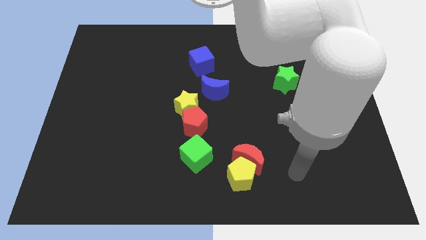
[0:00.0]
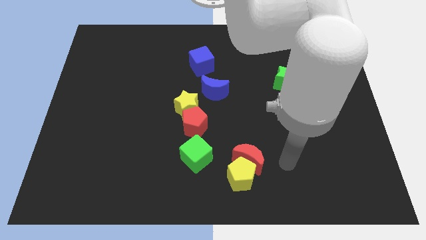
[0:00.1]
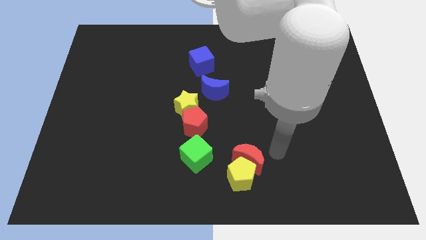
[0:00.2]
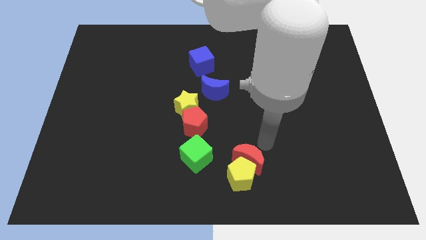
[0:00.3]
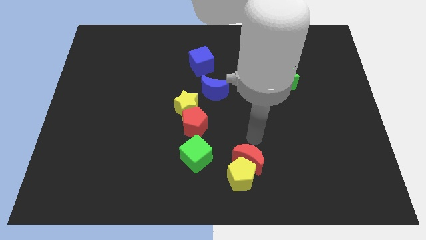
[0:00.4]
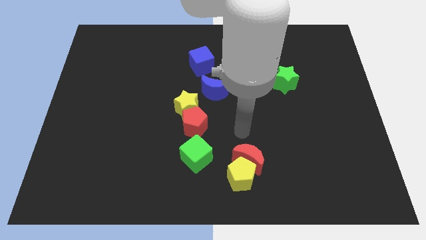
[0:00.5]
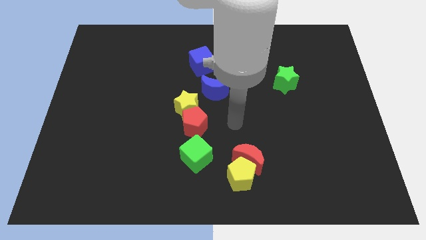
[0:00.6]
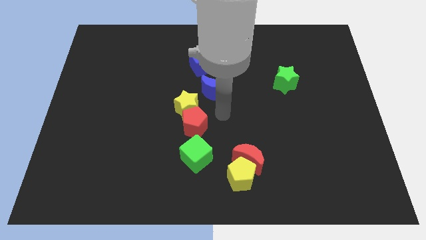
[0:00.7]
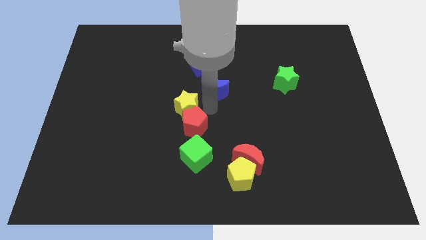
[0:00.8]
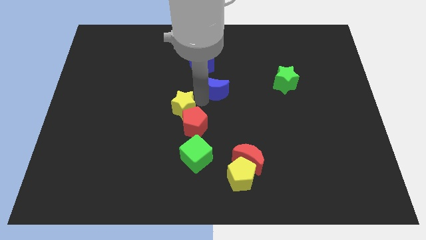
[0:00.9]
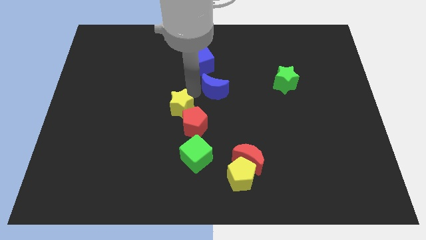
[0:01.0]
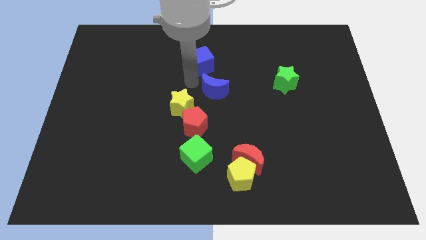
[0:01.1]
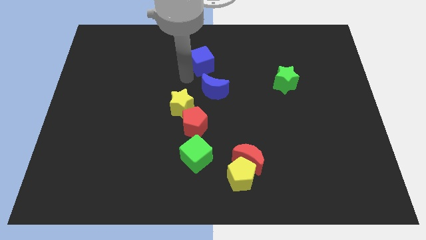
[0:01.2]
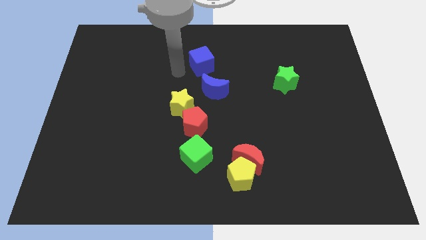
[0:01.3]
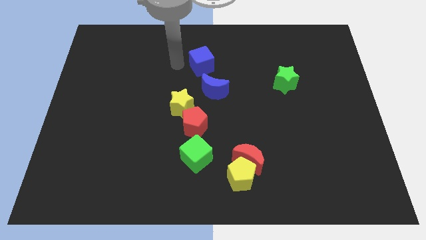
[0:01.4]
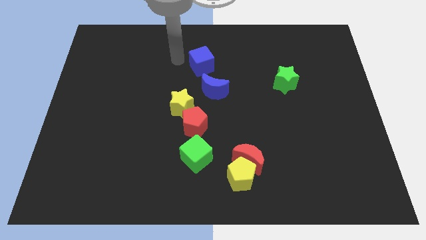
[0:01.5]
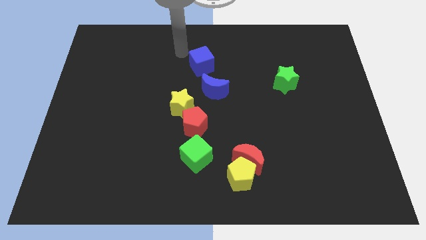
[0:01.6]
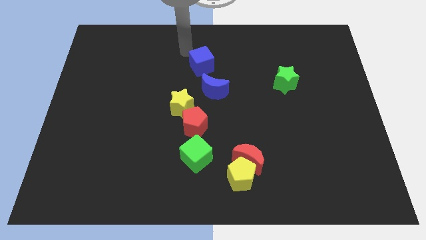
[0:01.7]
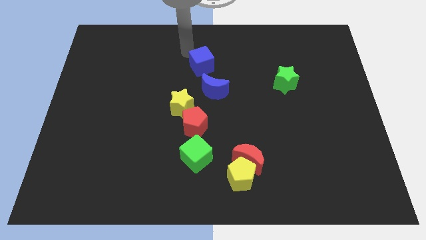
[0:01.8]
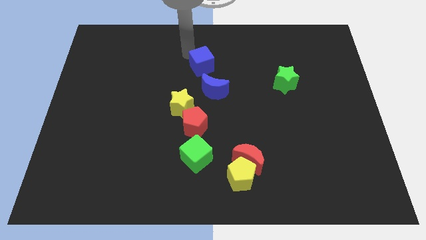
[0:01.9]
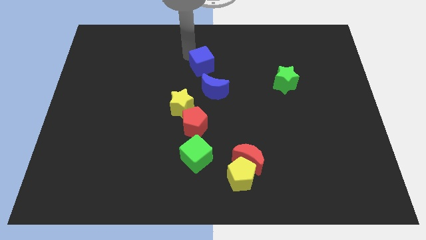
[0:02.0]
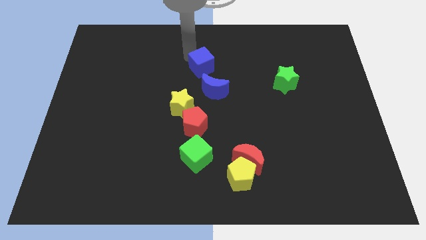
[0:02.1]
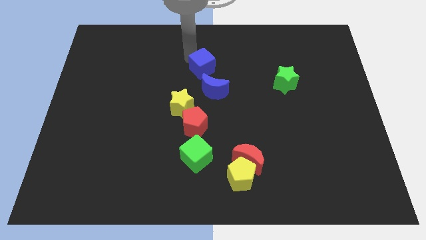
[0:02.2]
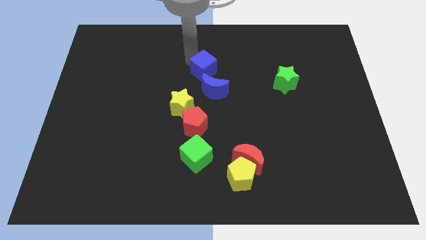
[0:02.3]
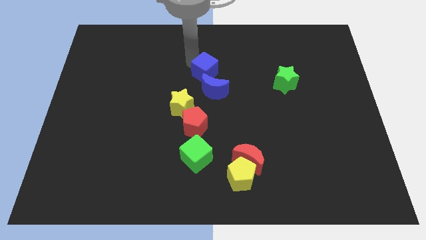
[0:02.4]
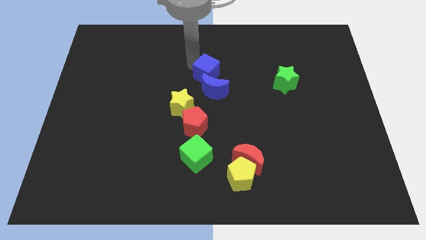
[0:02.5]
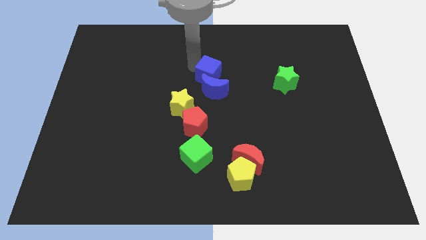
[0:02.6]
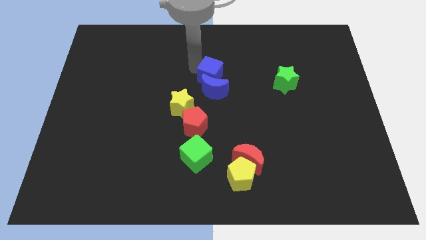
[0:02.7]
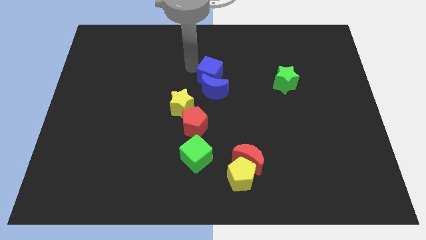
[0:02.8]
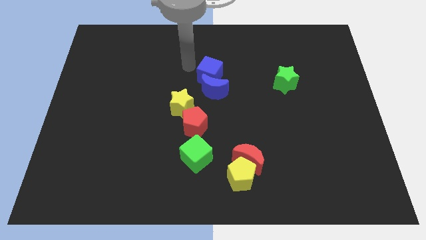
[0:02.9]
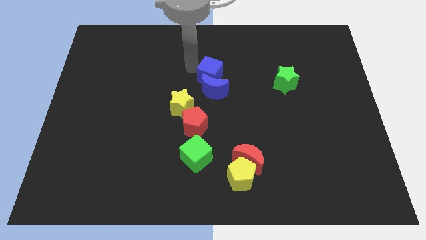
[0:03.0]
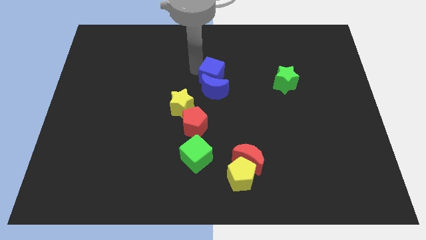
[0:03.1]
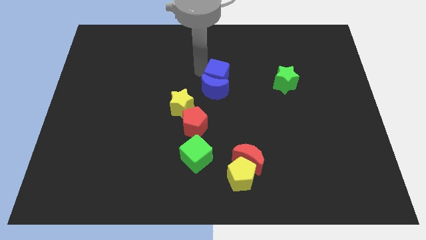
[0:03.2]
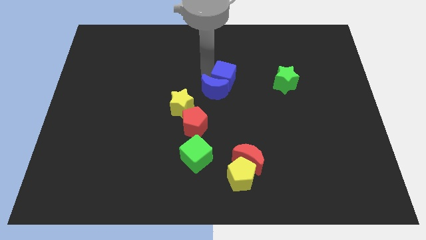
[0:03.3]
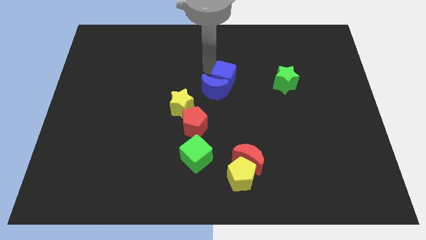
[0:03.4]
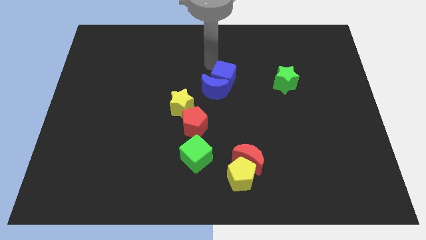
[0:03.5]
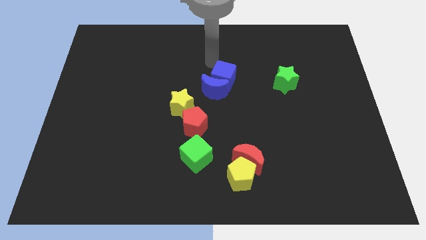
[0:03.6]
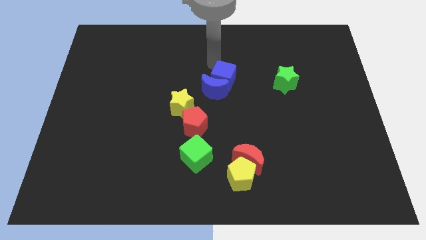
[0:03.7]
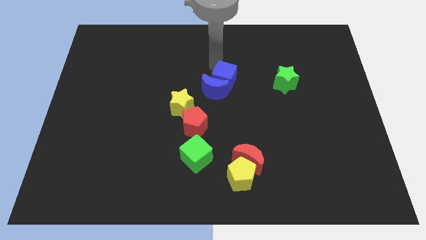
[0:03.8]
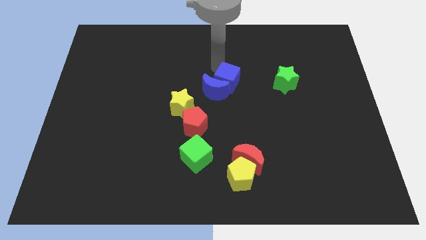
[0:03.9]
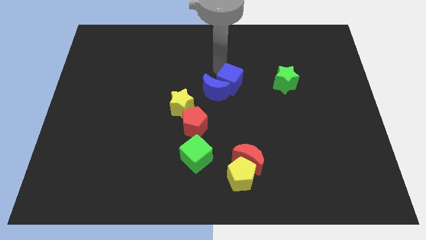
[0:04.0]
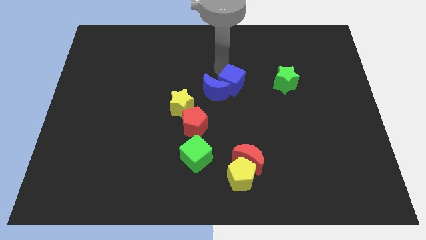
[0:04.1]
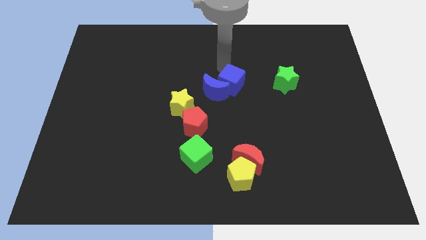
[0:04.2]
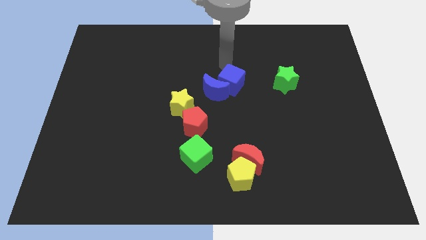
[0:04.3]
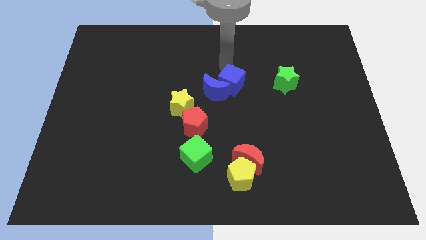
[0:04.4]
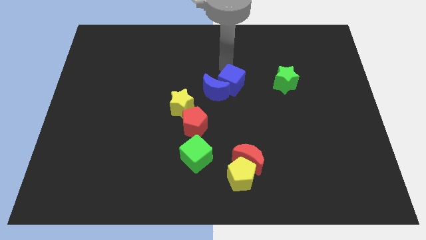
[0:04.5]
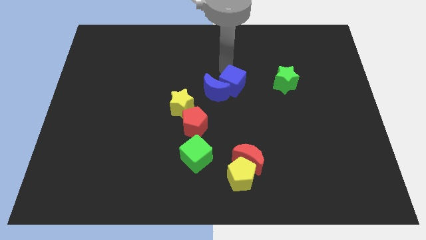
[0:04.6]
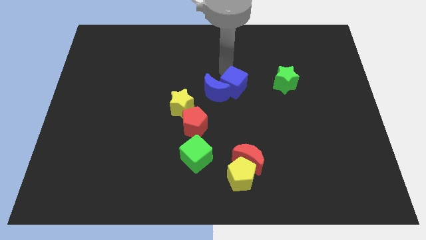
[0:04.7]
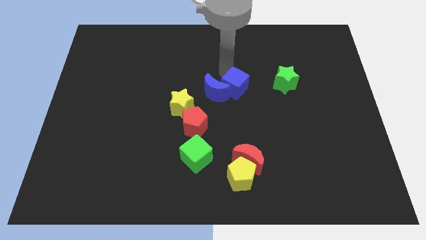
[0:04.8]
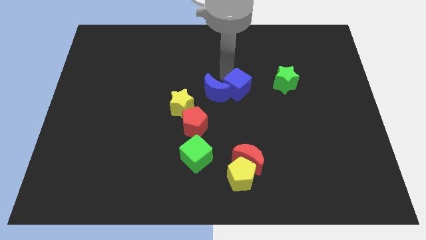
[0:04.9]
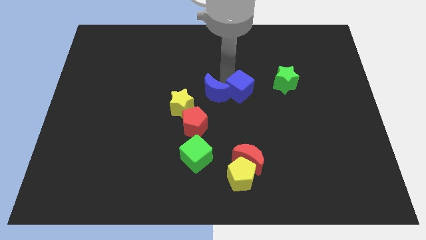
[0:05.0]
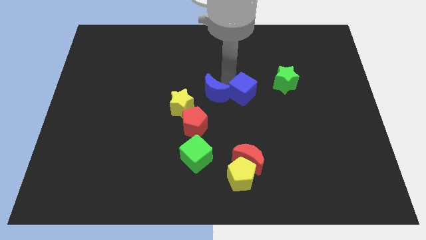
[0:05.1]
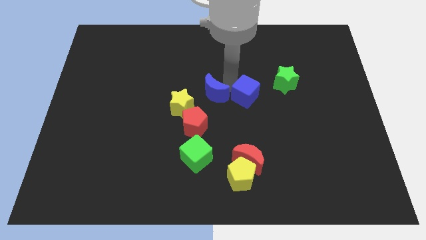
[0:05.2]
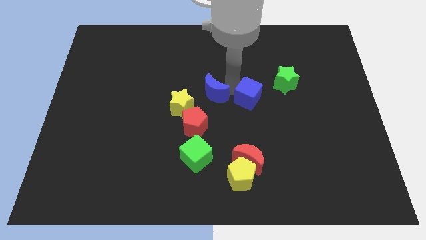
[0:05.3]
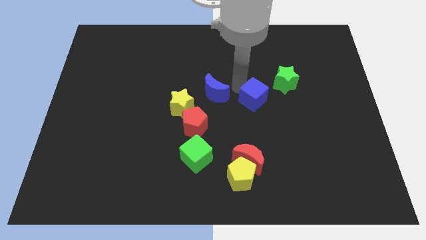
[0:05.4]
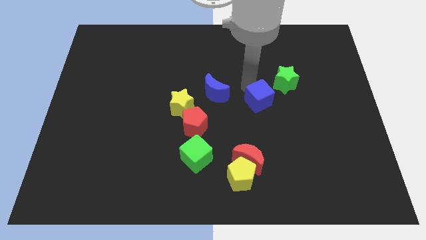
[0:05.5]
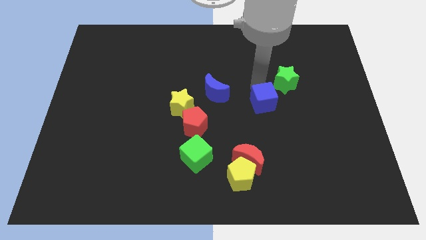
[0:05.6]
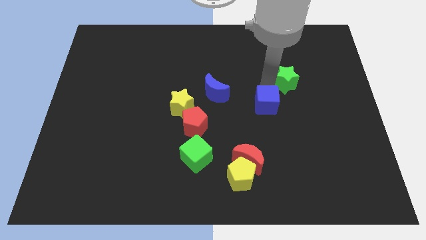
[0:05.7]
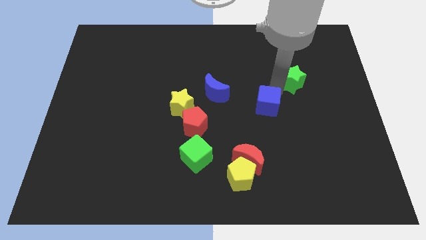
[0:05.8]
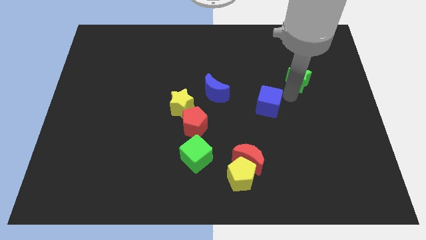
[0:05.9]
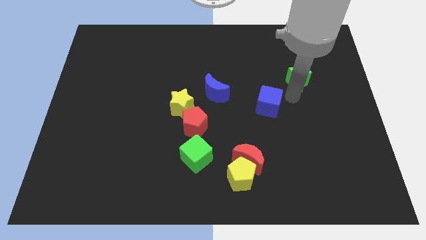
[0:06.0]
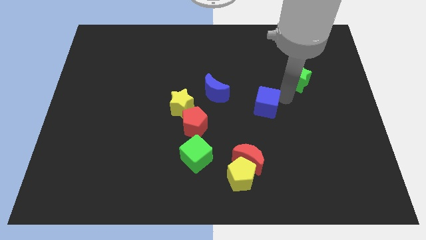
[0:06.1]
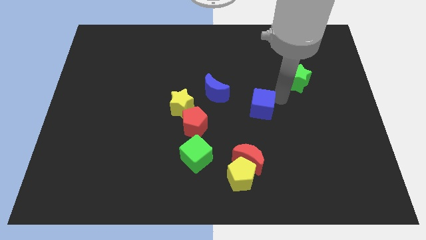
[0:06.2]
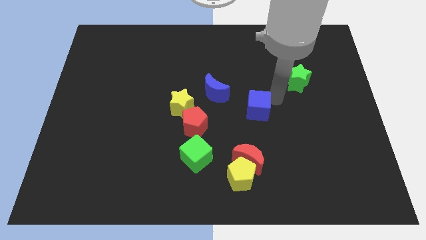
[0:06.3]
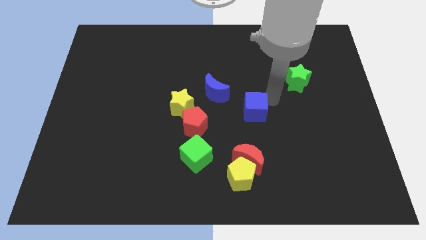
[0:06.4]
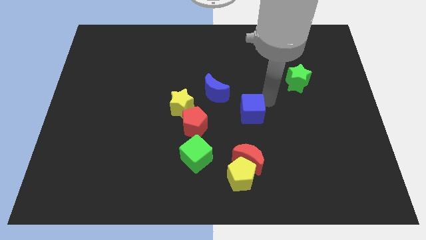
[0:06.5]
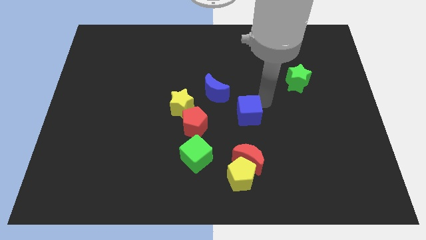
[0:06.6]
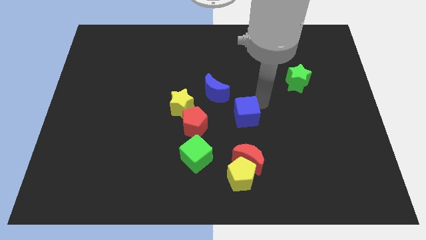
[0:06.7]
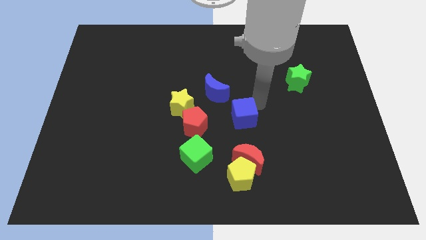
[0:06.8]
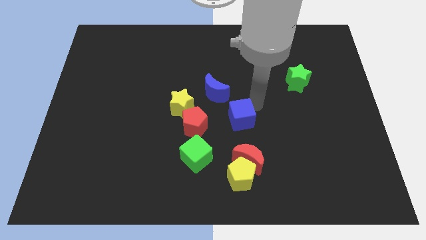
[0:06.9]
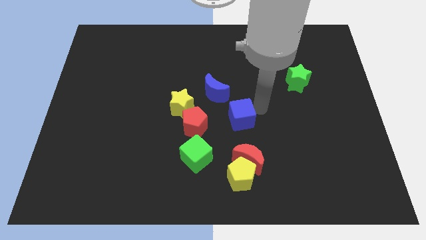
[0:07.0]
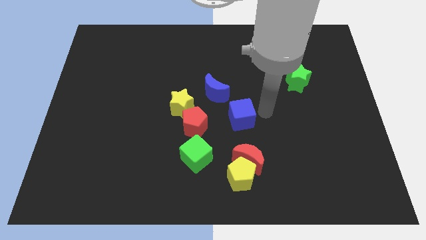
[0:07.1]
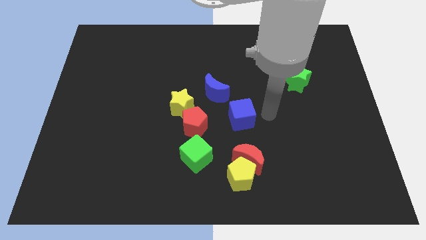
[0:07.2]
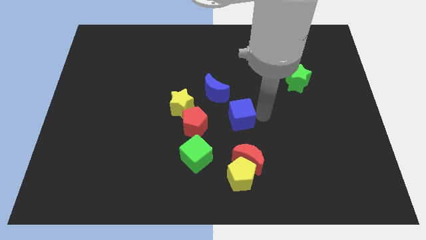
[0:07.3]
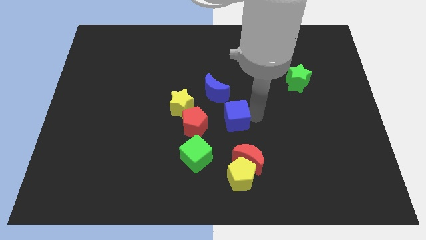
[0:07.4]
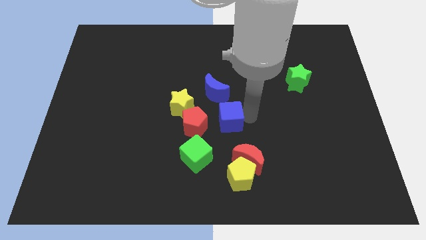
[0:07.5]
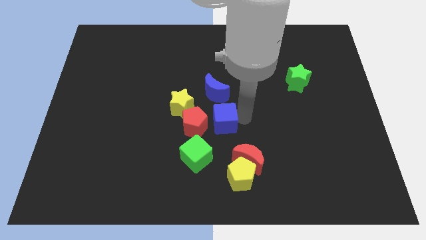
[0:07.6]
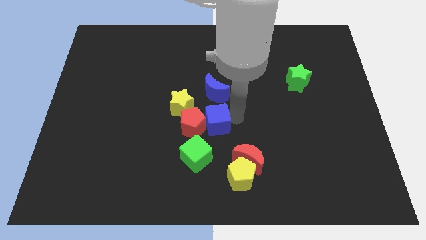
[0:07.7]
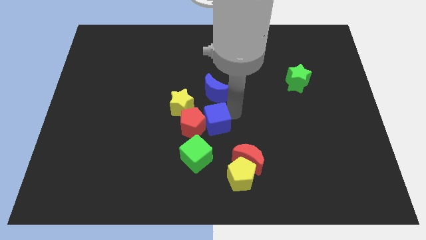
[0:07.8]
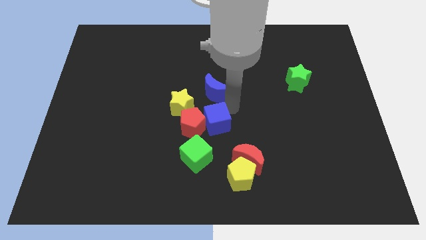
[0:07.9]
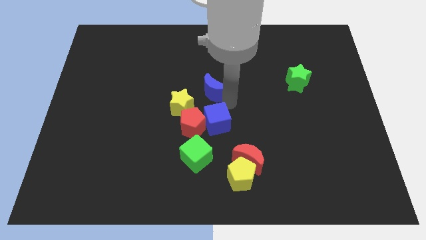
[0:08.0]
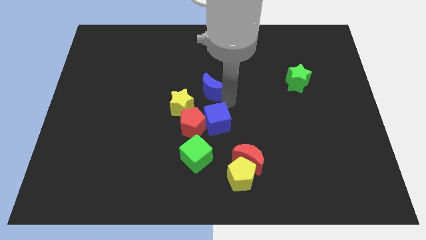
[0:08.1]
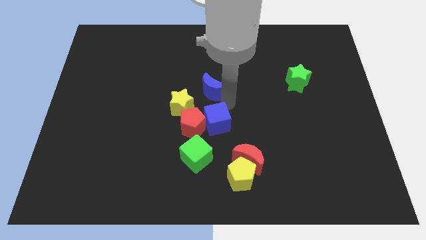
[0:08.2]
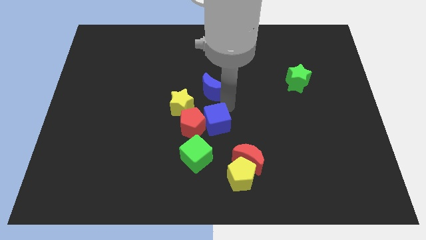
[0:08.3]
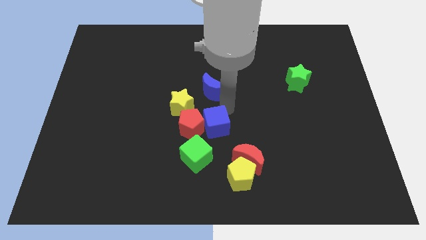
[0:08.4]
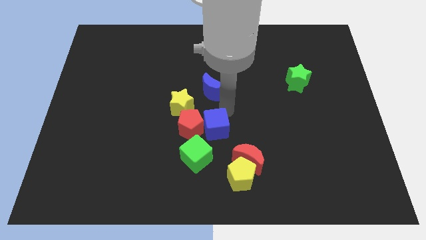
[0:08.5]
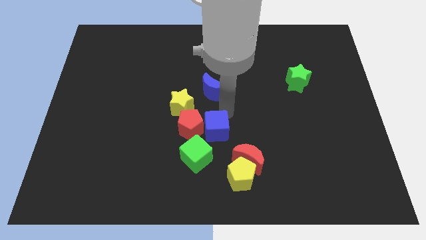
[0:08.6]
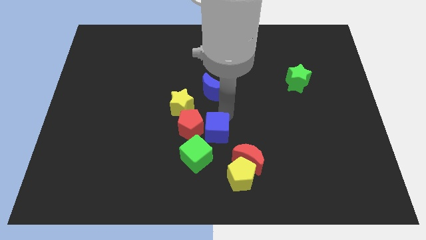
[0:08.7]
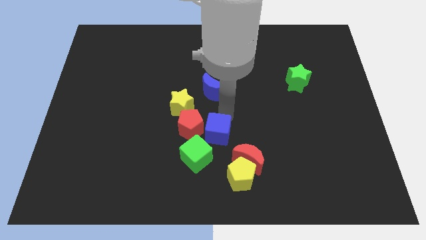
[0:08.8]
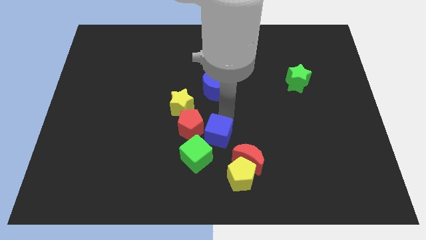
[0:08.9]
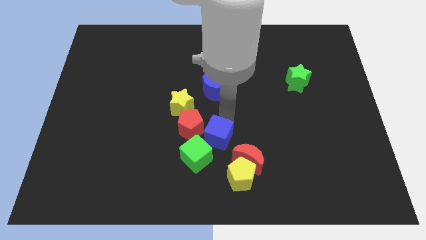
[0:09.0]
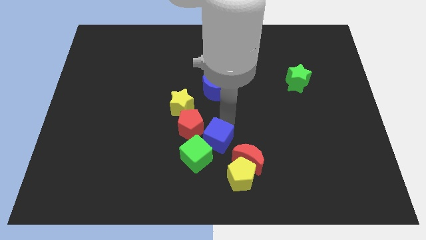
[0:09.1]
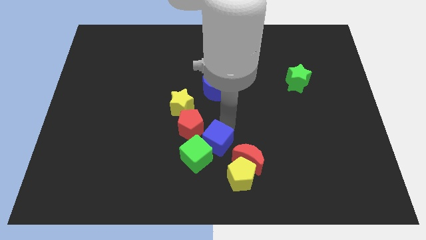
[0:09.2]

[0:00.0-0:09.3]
push the blue cube close to the green cube
